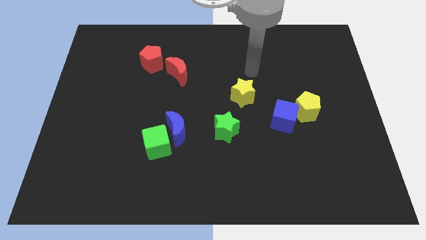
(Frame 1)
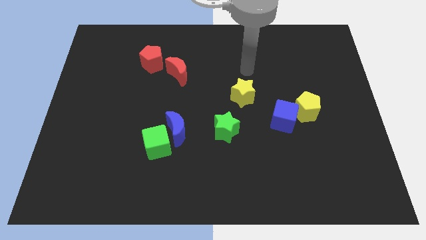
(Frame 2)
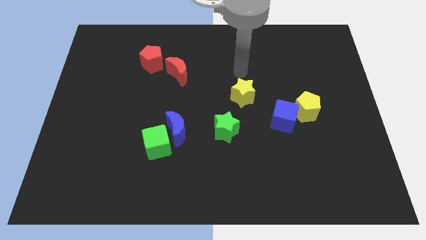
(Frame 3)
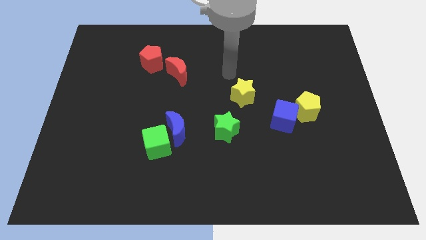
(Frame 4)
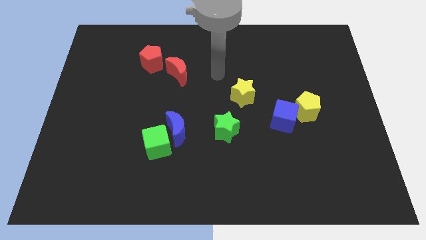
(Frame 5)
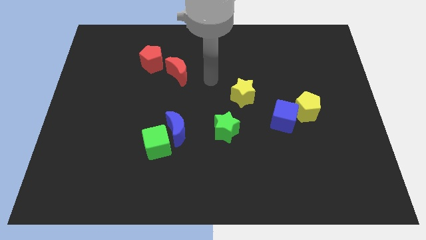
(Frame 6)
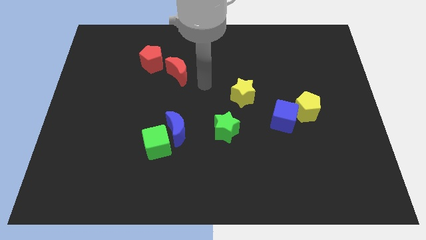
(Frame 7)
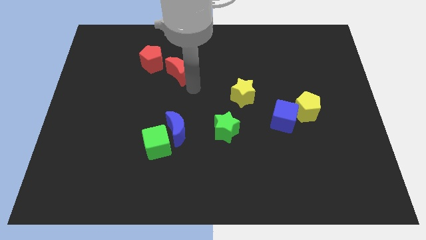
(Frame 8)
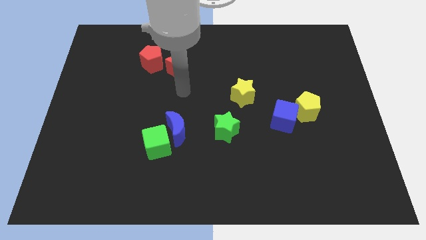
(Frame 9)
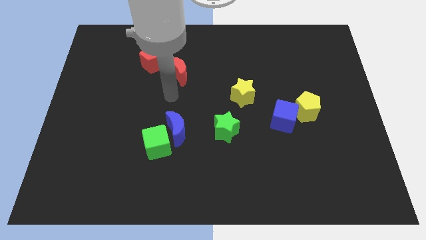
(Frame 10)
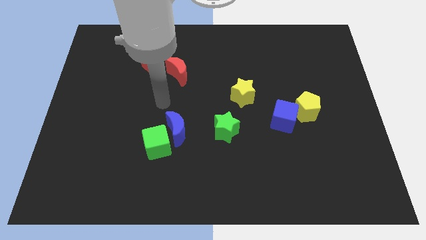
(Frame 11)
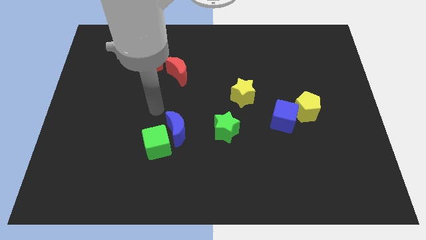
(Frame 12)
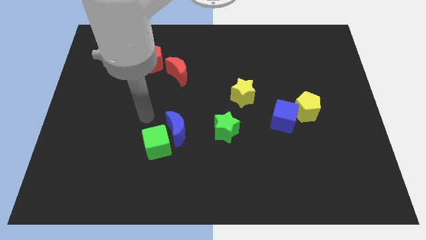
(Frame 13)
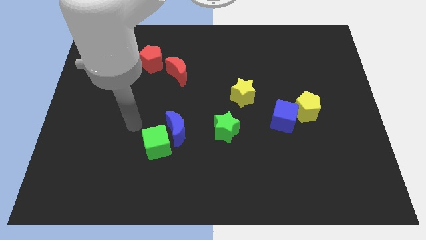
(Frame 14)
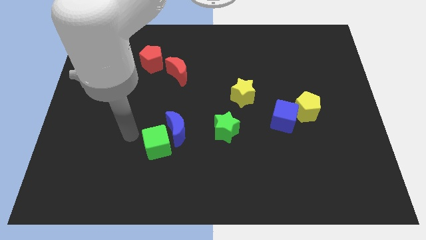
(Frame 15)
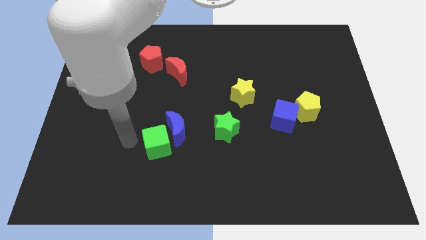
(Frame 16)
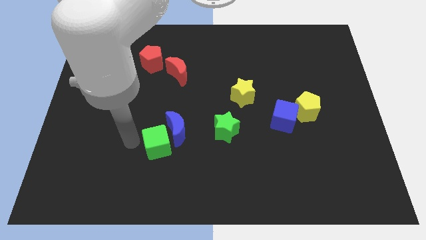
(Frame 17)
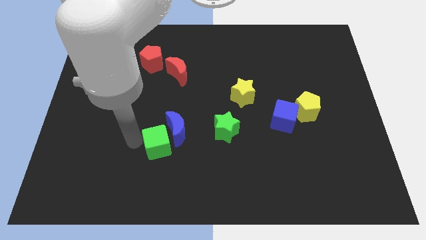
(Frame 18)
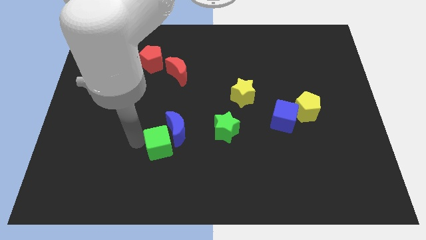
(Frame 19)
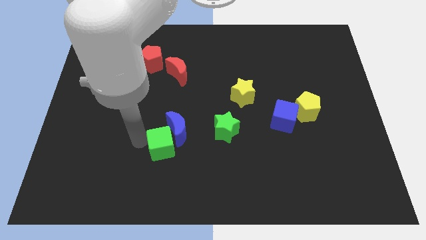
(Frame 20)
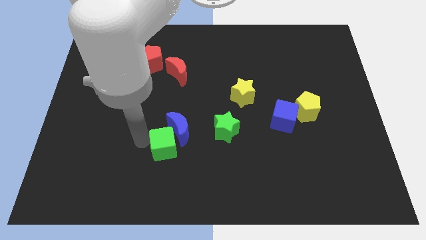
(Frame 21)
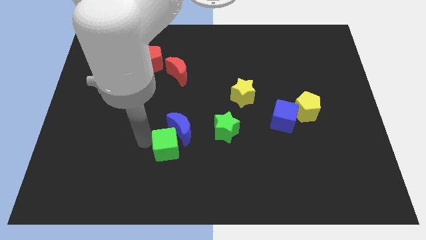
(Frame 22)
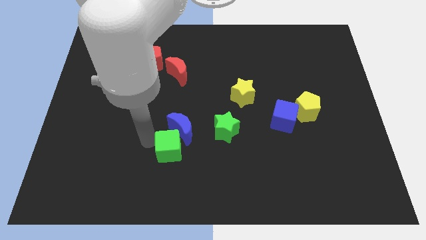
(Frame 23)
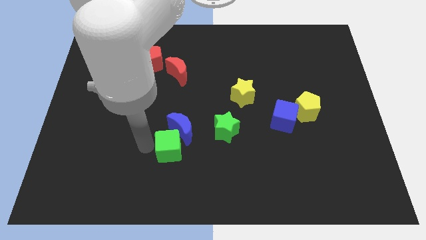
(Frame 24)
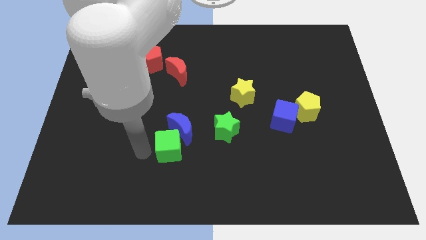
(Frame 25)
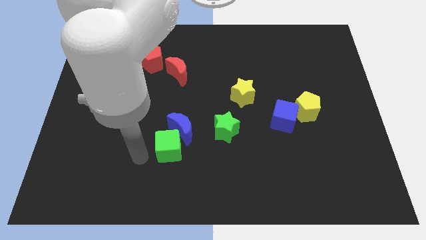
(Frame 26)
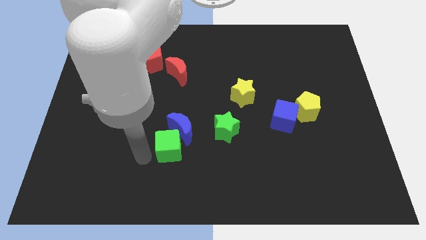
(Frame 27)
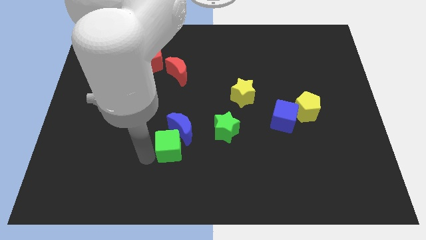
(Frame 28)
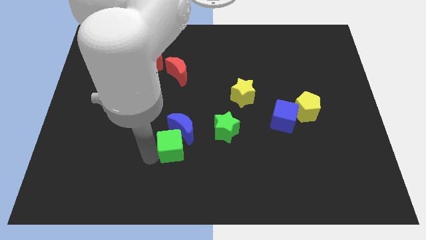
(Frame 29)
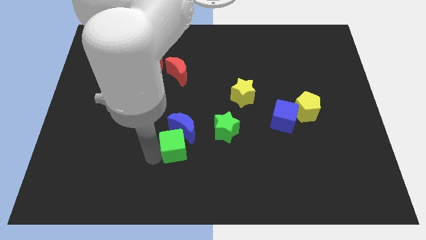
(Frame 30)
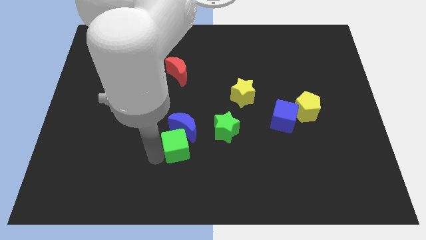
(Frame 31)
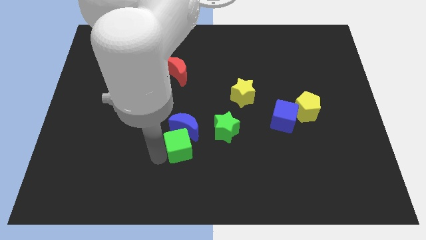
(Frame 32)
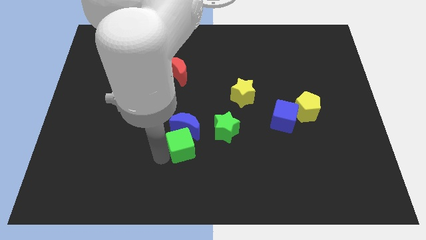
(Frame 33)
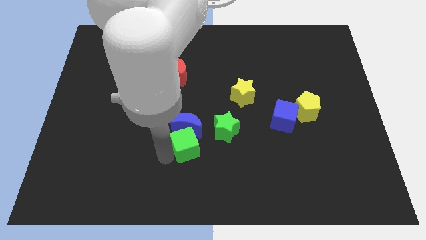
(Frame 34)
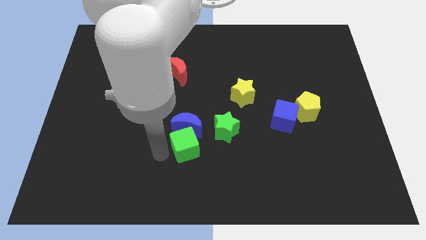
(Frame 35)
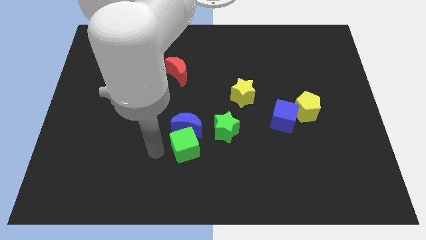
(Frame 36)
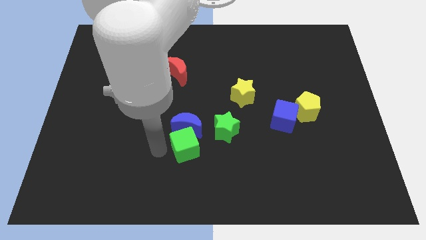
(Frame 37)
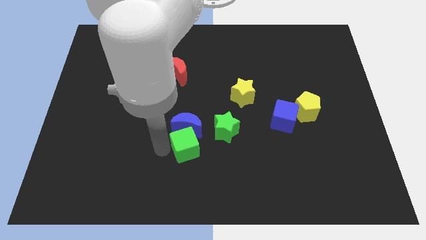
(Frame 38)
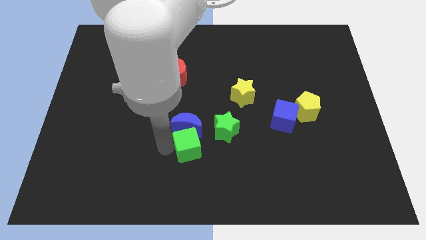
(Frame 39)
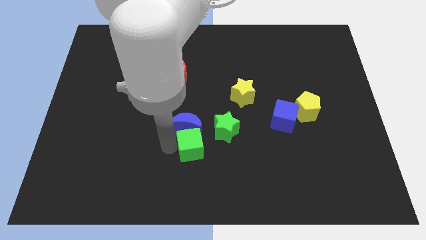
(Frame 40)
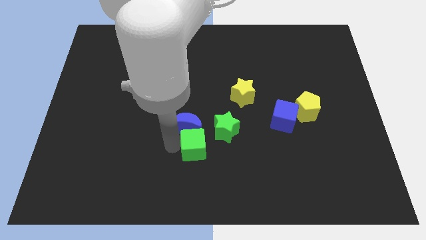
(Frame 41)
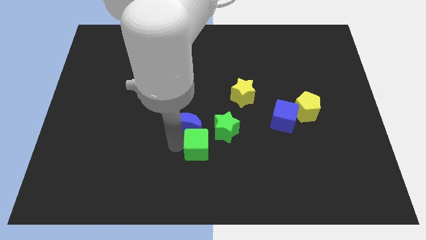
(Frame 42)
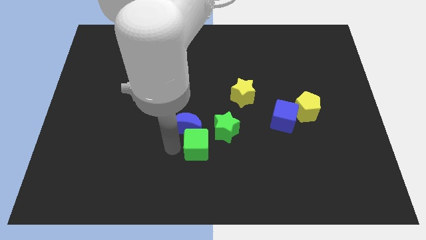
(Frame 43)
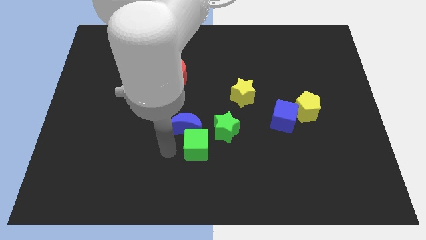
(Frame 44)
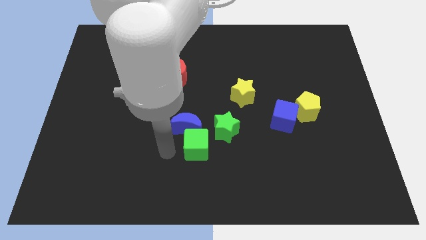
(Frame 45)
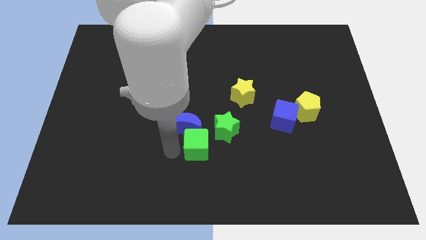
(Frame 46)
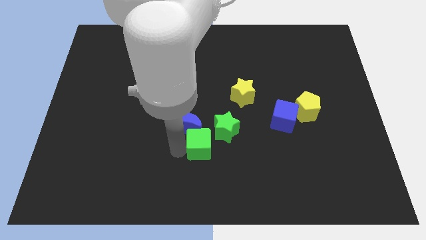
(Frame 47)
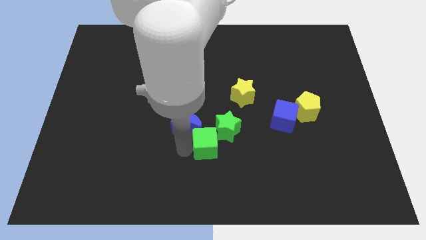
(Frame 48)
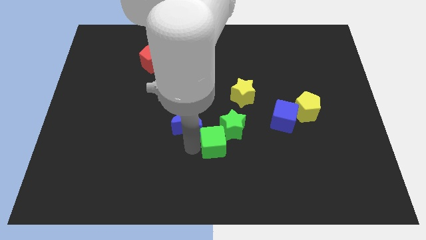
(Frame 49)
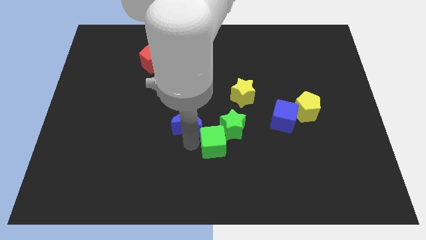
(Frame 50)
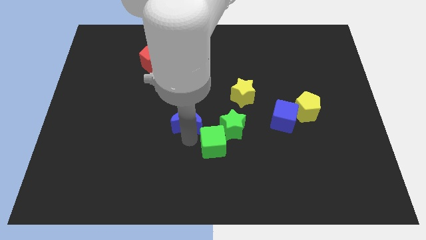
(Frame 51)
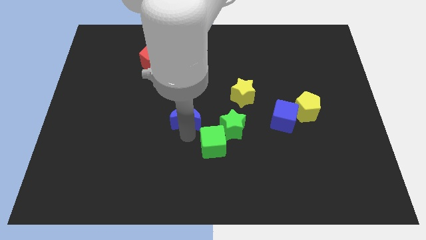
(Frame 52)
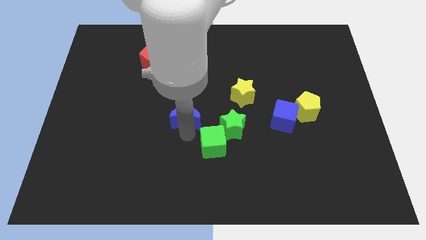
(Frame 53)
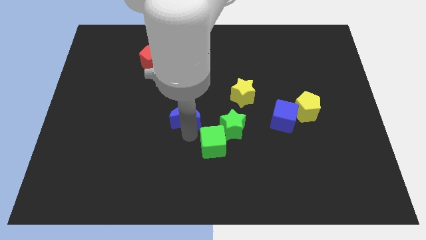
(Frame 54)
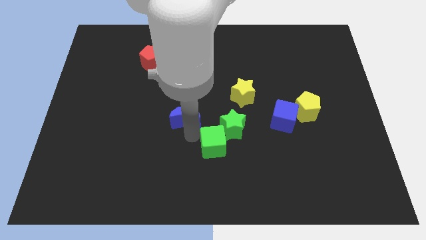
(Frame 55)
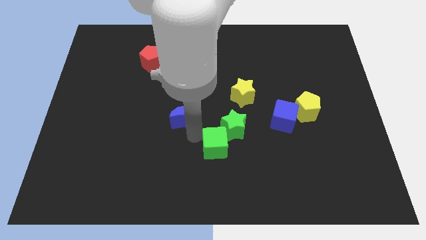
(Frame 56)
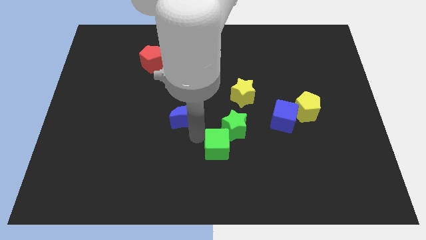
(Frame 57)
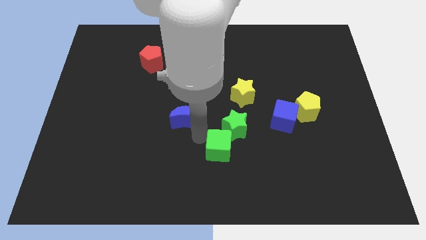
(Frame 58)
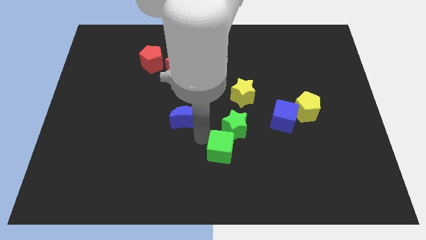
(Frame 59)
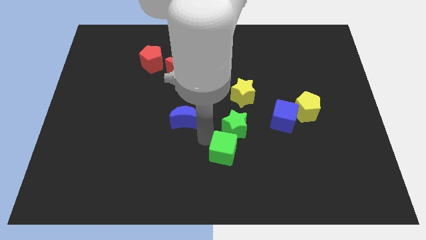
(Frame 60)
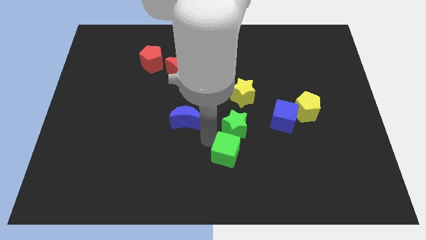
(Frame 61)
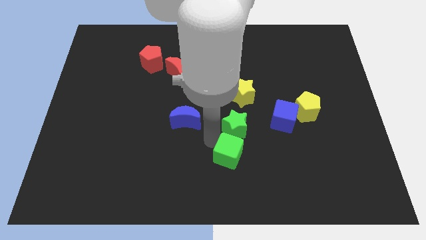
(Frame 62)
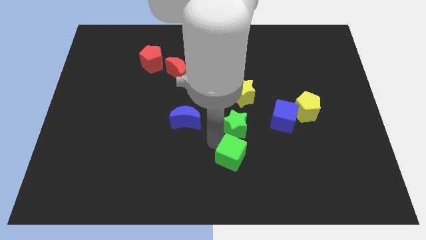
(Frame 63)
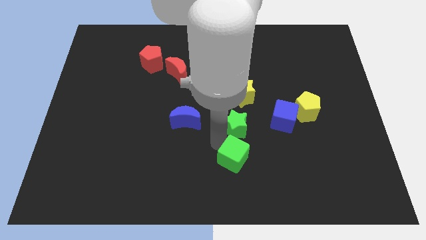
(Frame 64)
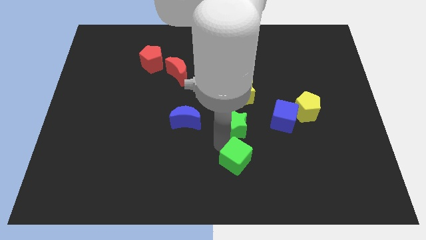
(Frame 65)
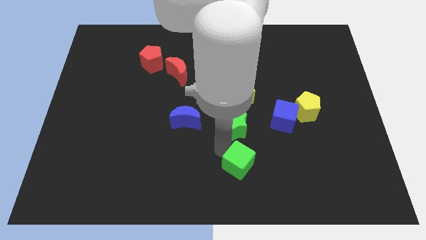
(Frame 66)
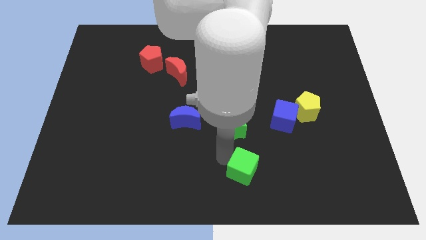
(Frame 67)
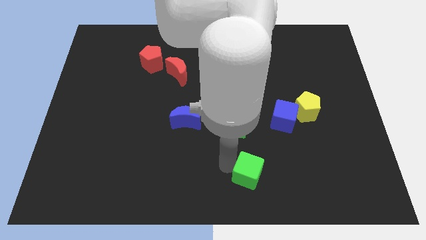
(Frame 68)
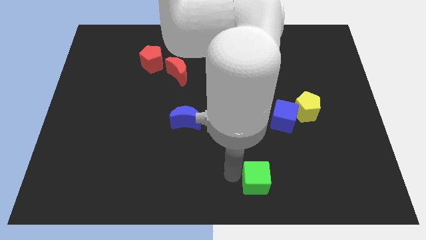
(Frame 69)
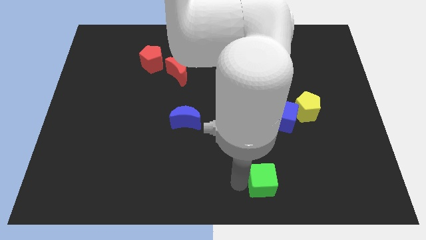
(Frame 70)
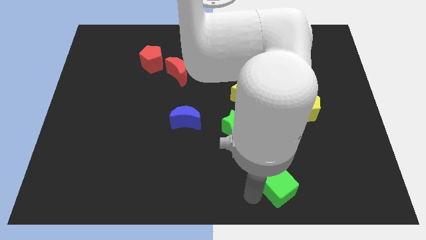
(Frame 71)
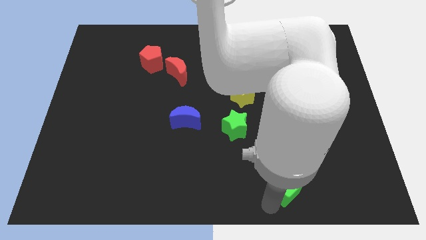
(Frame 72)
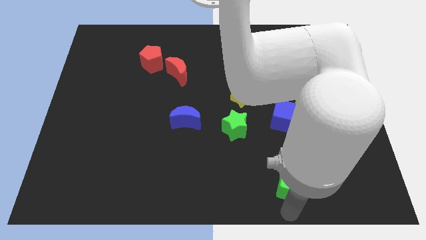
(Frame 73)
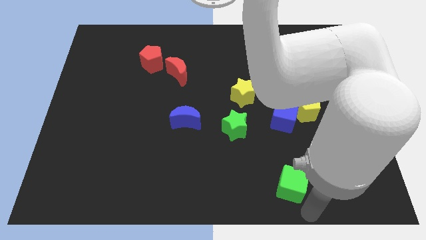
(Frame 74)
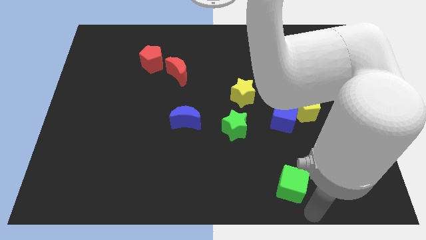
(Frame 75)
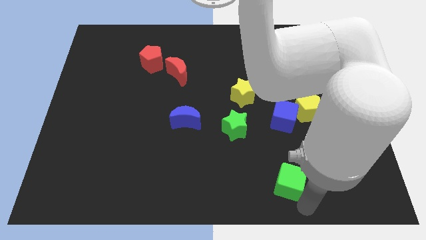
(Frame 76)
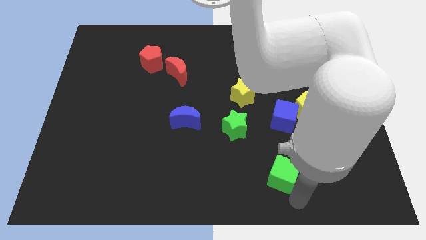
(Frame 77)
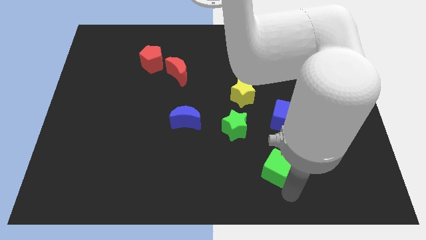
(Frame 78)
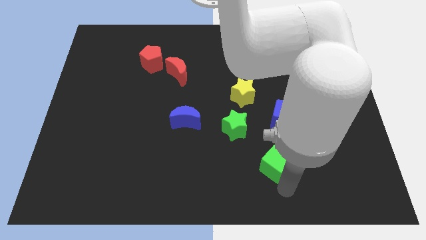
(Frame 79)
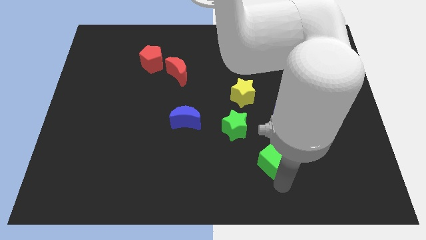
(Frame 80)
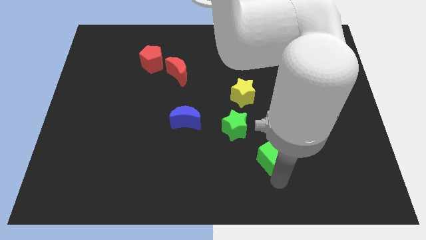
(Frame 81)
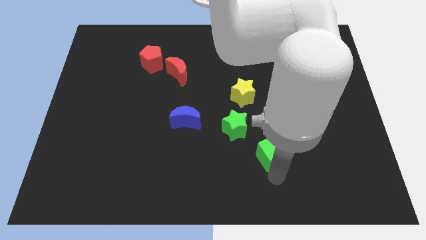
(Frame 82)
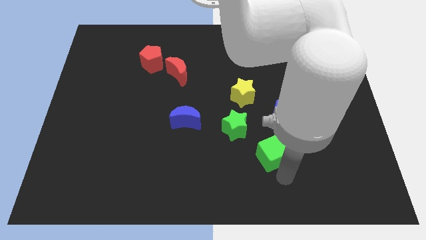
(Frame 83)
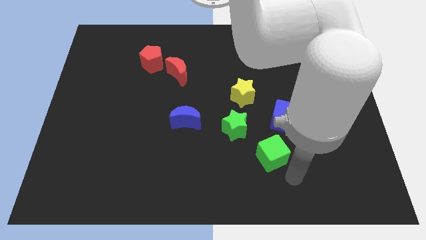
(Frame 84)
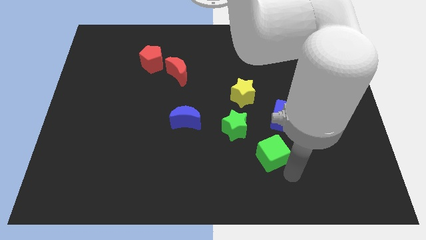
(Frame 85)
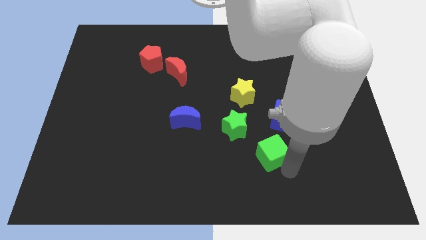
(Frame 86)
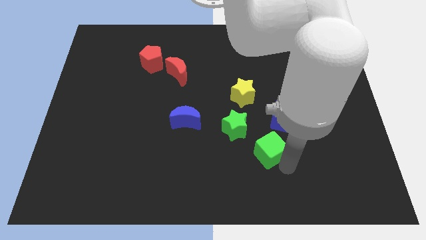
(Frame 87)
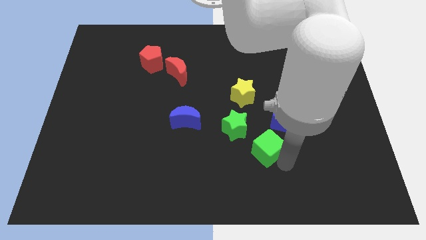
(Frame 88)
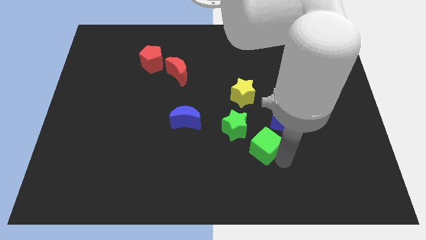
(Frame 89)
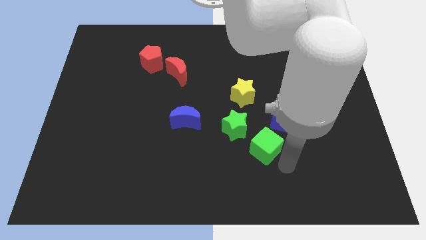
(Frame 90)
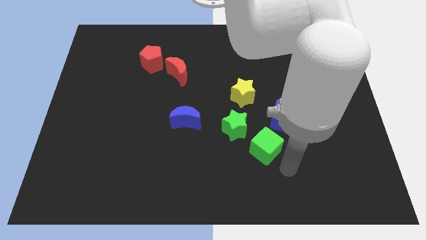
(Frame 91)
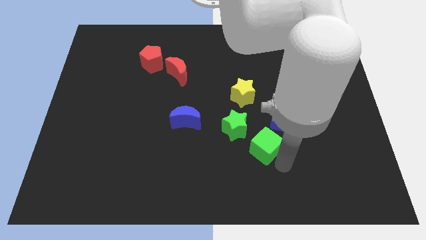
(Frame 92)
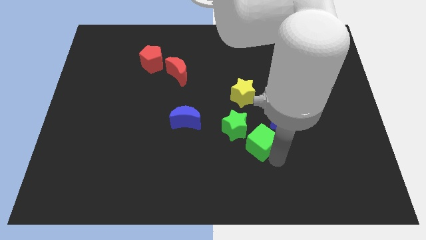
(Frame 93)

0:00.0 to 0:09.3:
put the green cube to the bottom side of the yellow star
